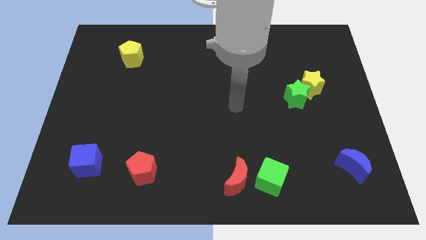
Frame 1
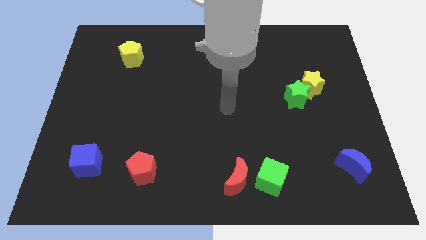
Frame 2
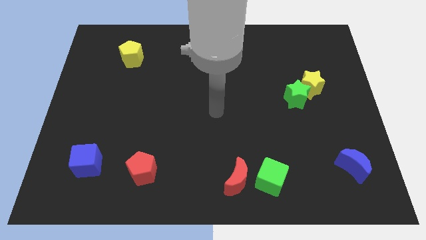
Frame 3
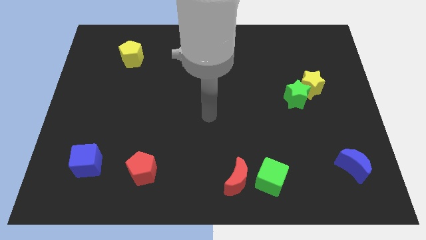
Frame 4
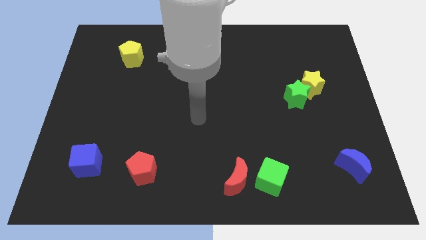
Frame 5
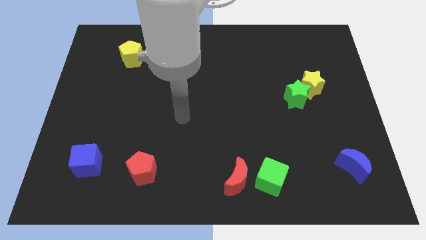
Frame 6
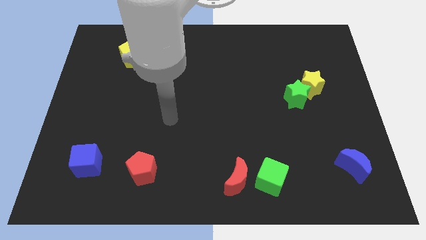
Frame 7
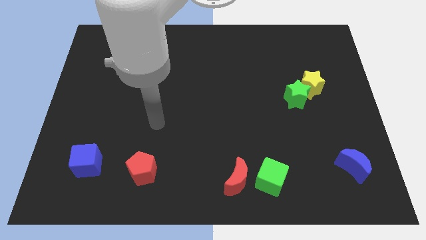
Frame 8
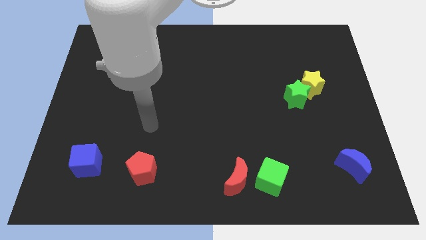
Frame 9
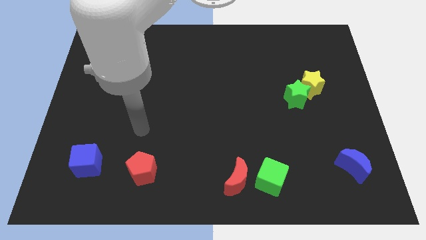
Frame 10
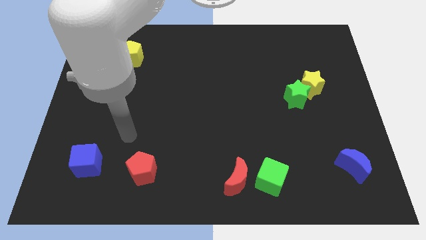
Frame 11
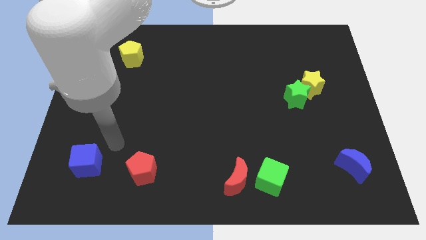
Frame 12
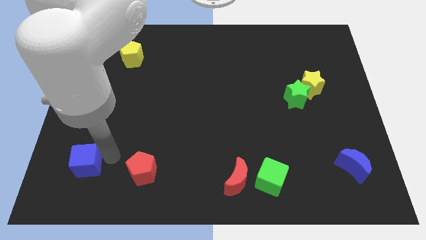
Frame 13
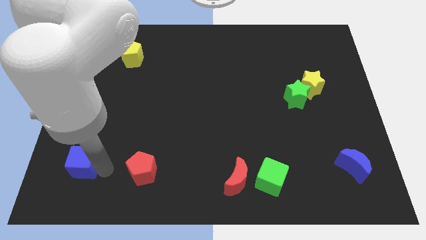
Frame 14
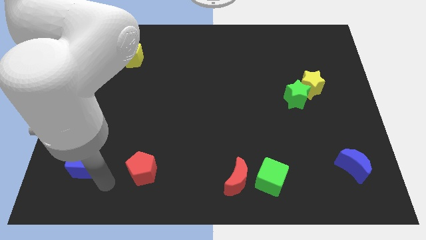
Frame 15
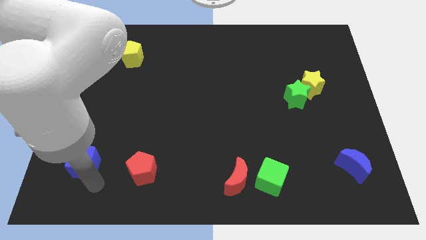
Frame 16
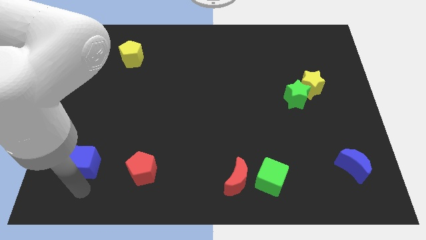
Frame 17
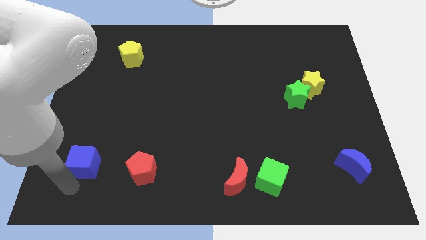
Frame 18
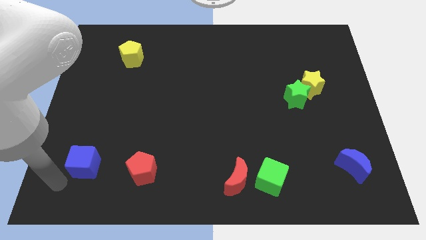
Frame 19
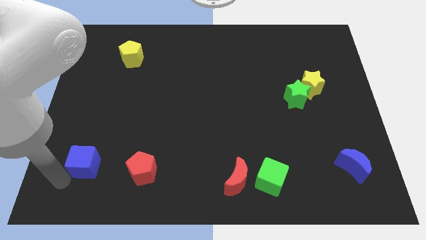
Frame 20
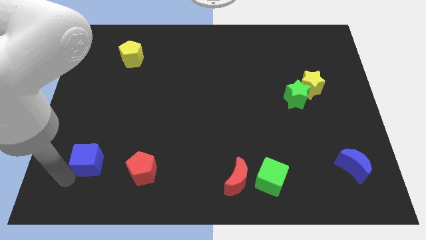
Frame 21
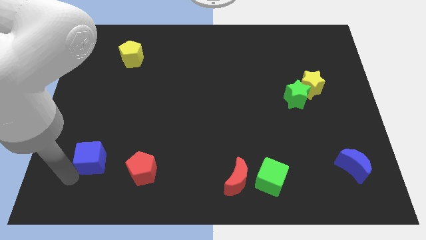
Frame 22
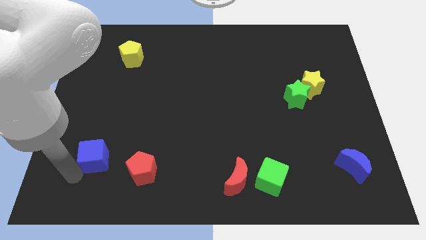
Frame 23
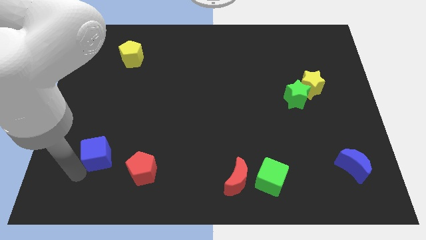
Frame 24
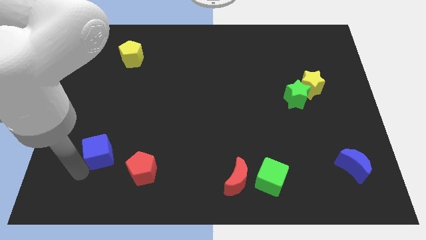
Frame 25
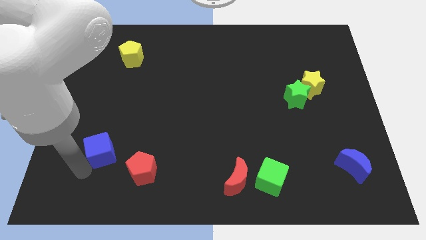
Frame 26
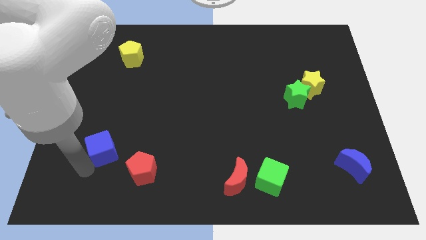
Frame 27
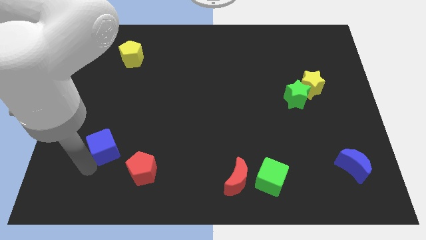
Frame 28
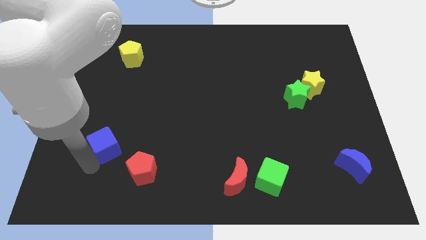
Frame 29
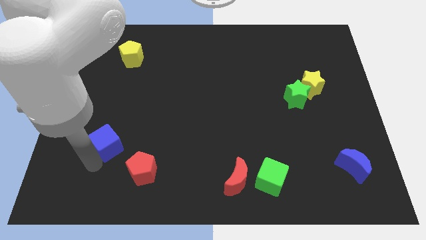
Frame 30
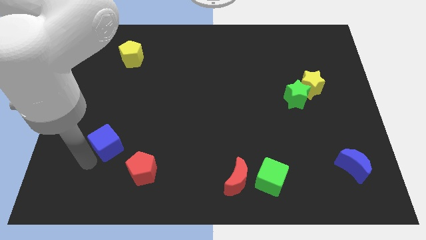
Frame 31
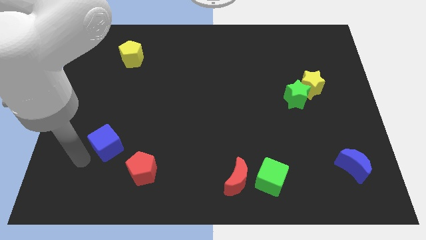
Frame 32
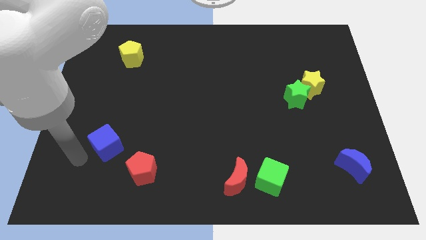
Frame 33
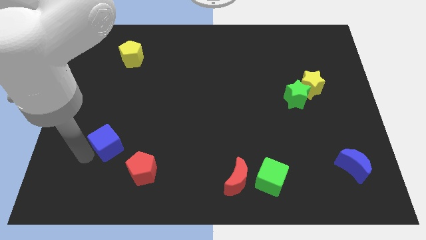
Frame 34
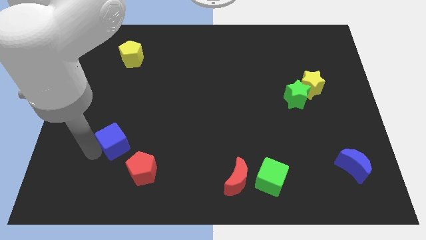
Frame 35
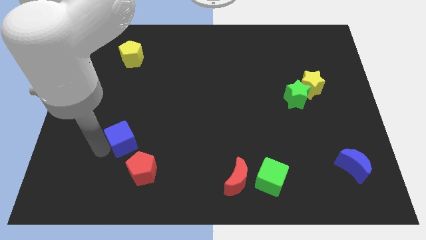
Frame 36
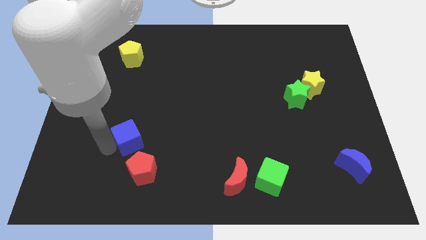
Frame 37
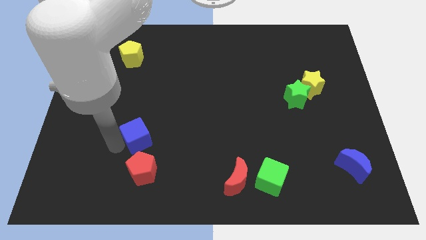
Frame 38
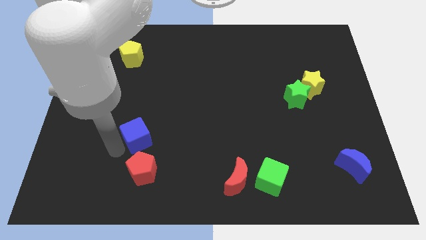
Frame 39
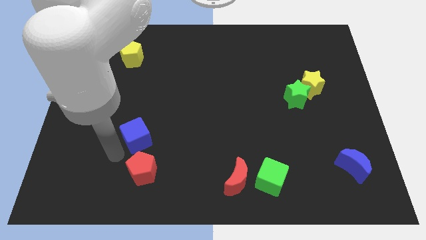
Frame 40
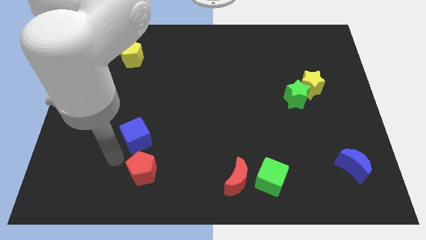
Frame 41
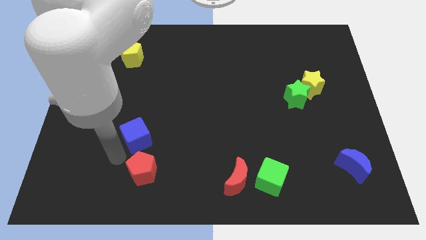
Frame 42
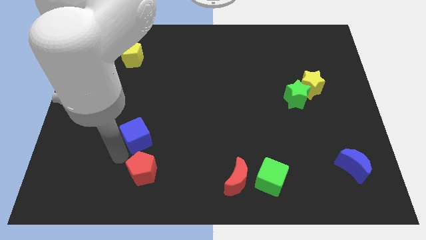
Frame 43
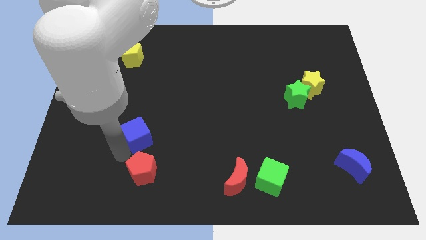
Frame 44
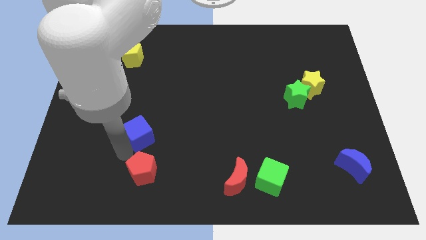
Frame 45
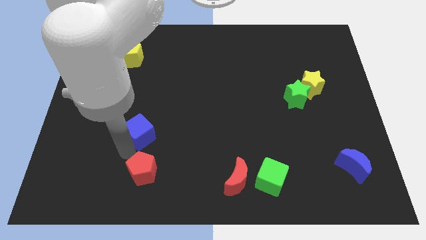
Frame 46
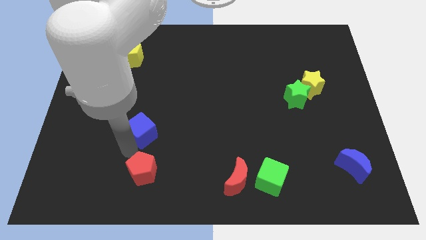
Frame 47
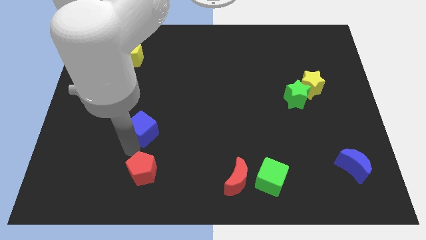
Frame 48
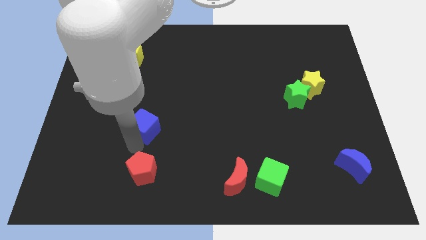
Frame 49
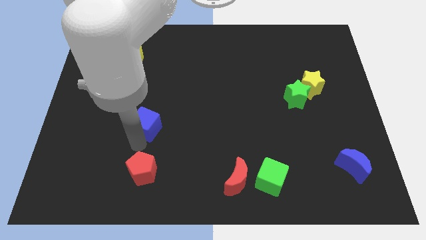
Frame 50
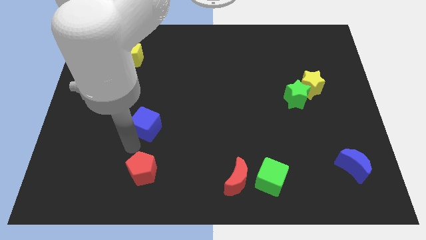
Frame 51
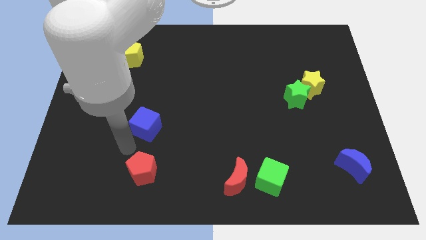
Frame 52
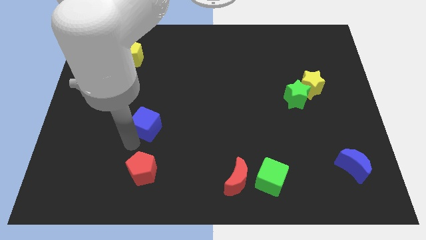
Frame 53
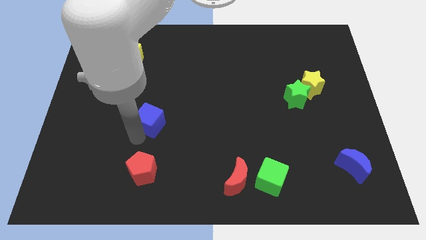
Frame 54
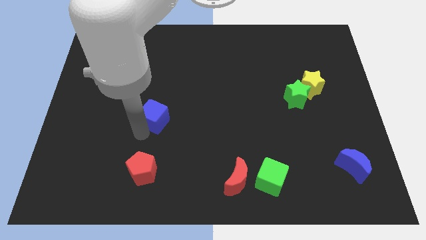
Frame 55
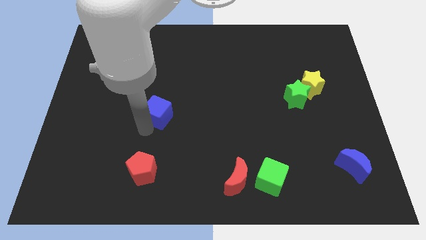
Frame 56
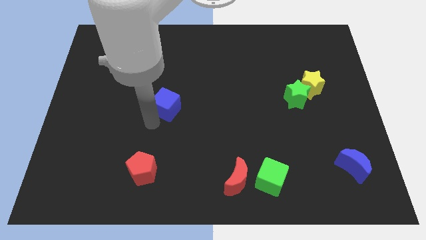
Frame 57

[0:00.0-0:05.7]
slide the blue cube upwards and right diagonally

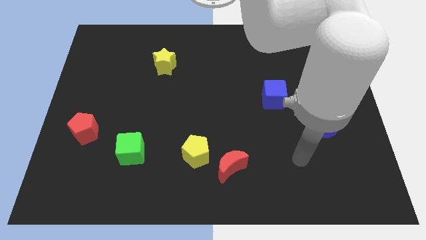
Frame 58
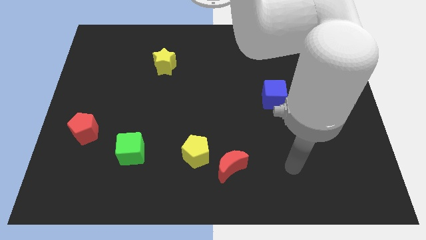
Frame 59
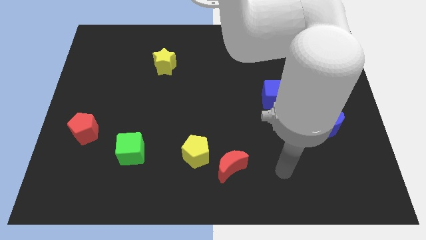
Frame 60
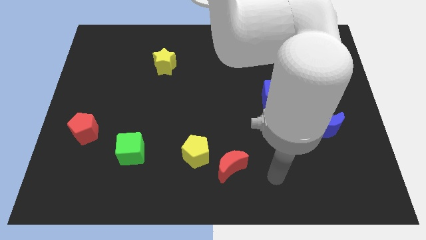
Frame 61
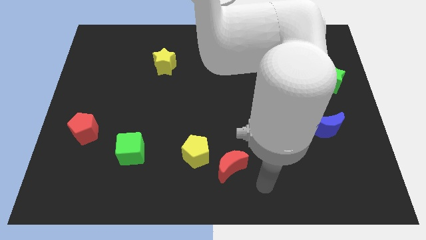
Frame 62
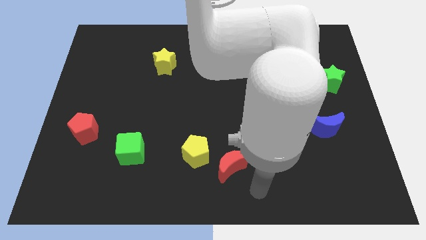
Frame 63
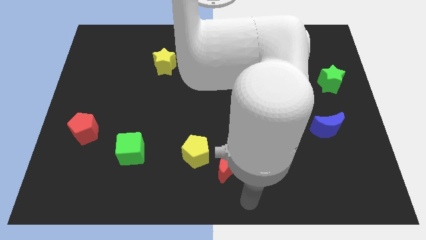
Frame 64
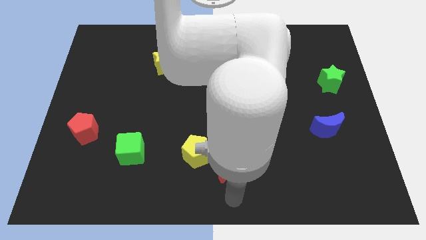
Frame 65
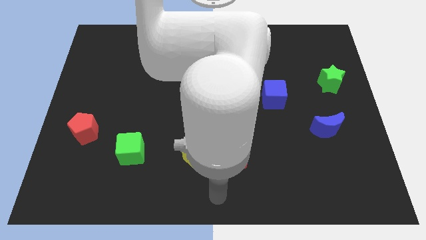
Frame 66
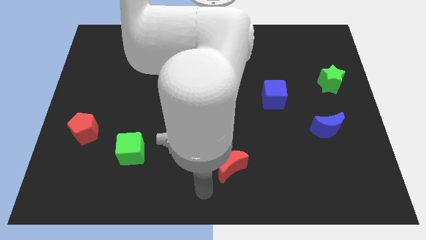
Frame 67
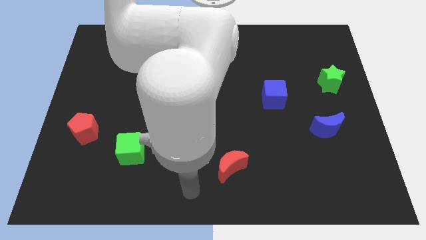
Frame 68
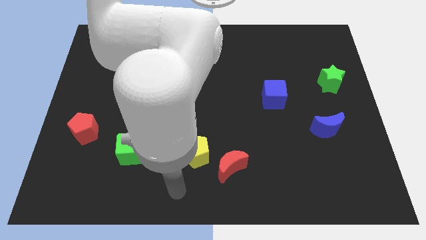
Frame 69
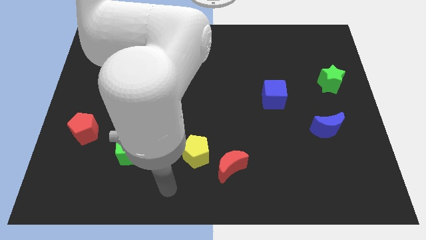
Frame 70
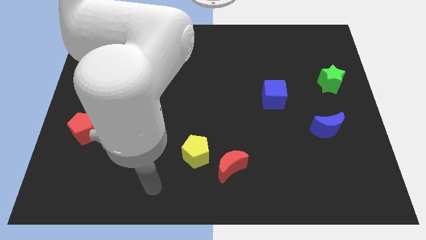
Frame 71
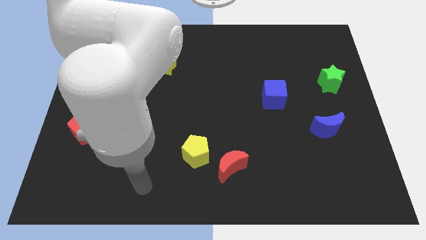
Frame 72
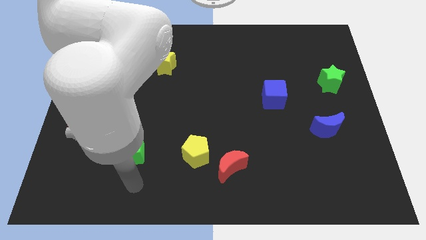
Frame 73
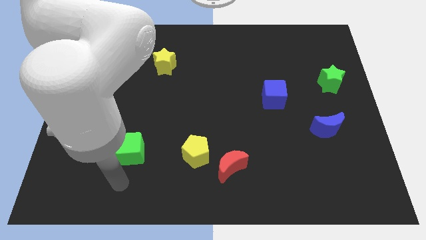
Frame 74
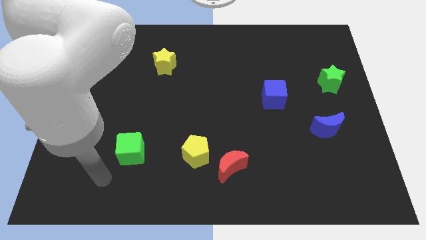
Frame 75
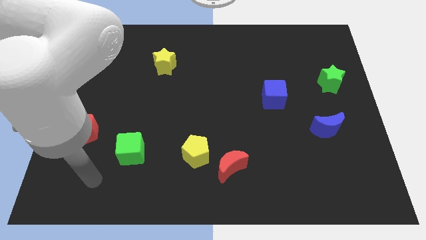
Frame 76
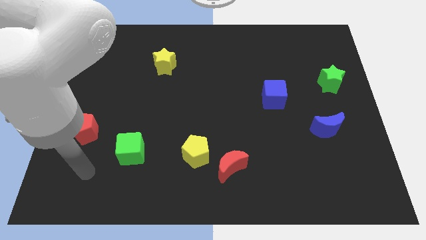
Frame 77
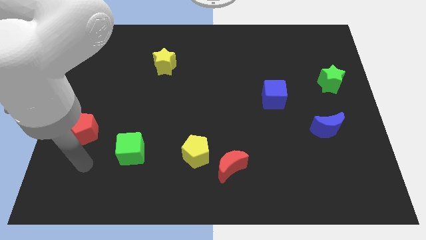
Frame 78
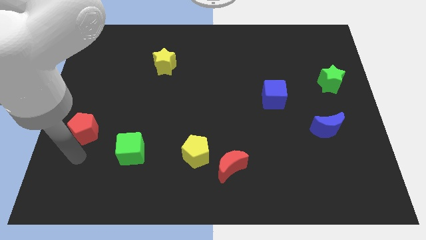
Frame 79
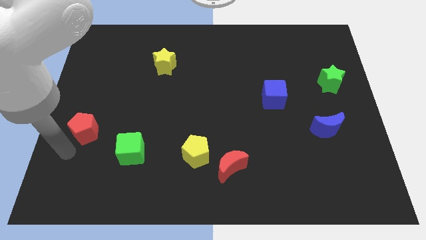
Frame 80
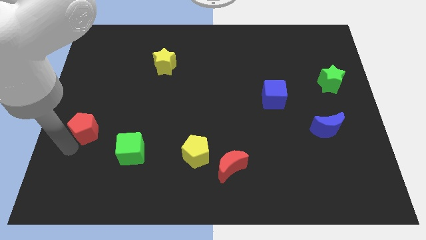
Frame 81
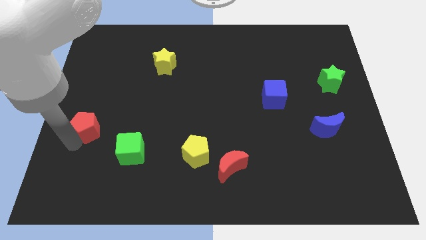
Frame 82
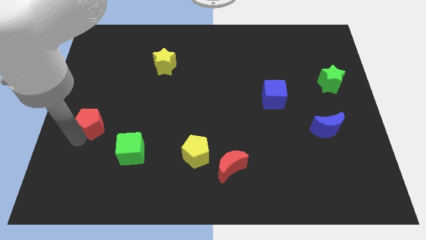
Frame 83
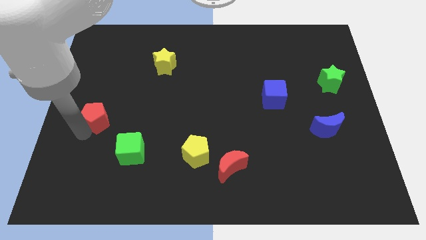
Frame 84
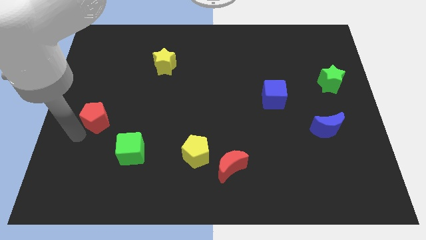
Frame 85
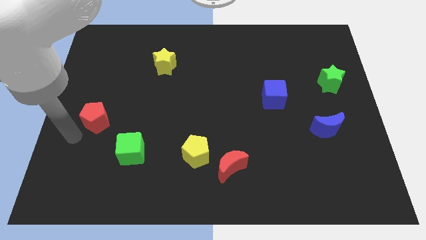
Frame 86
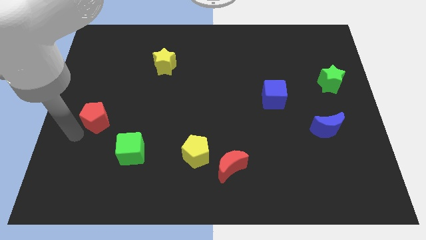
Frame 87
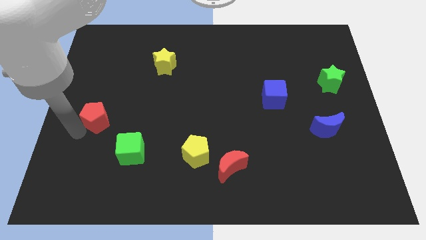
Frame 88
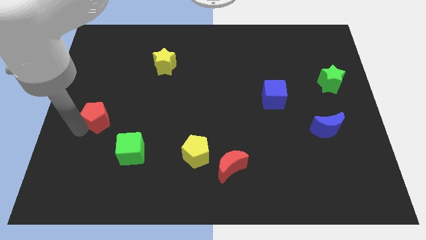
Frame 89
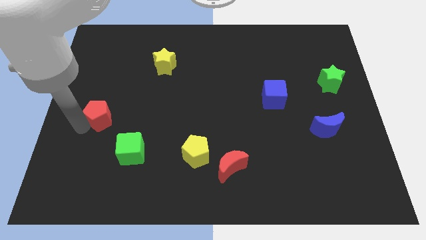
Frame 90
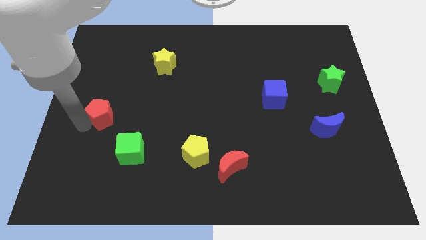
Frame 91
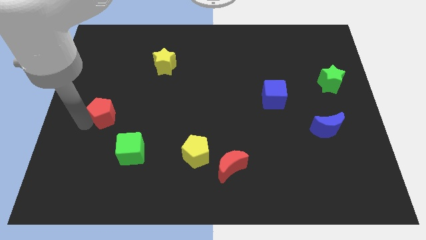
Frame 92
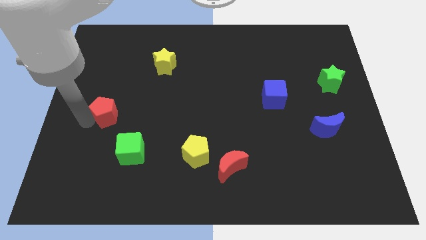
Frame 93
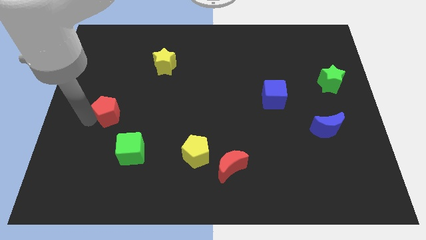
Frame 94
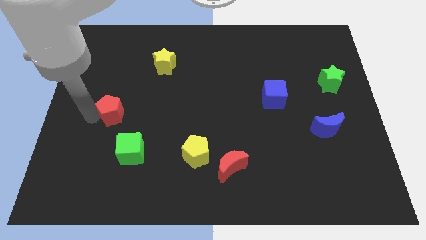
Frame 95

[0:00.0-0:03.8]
slightly slide the red pentagon up and right diagonally
